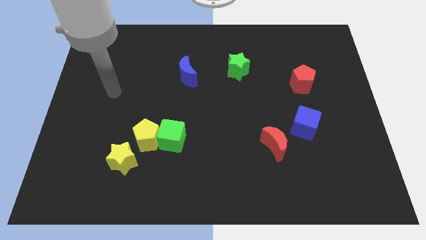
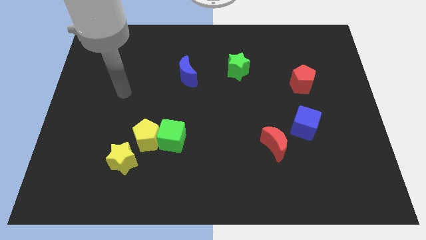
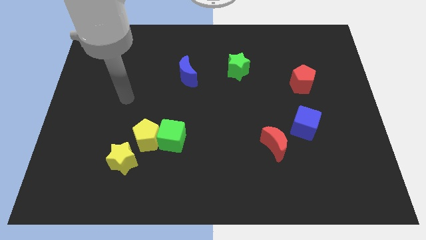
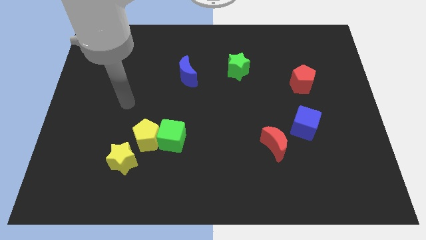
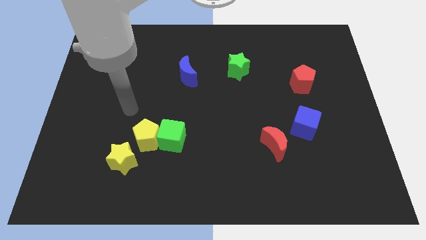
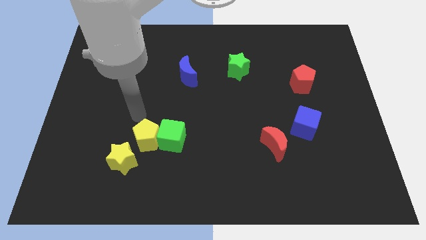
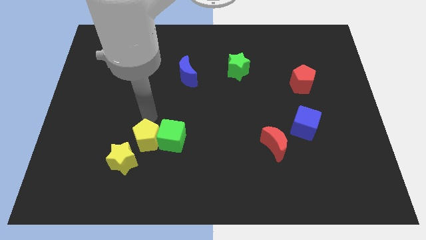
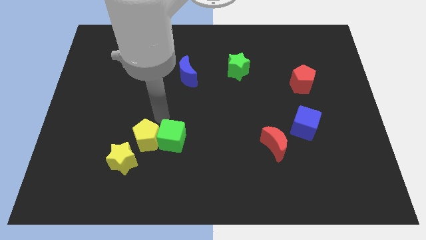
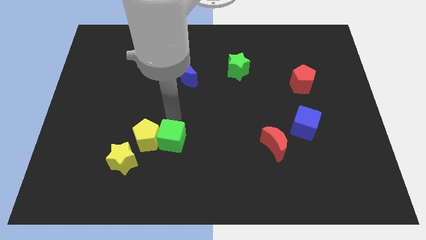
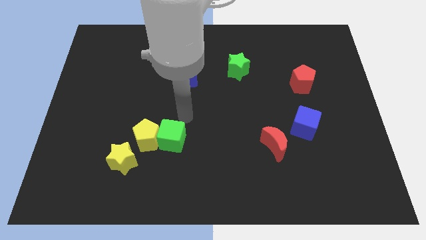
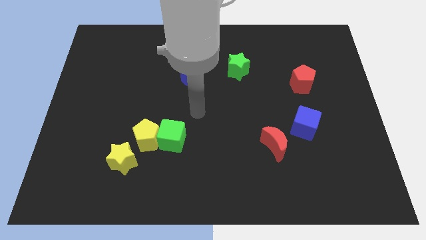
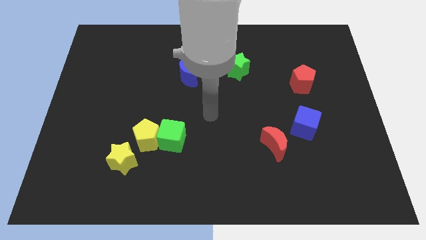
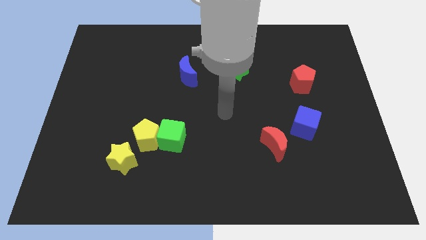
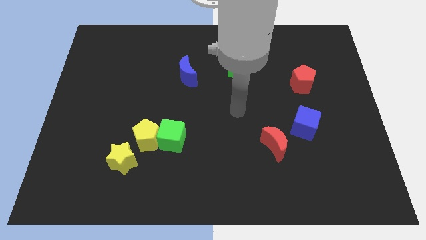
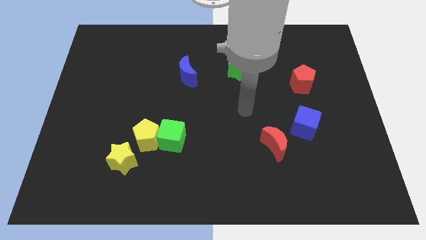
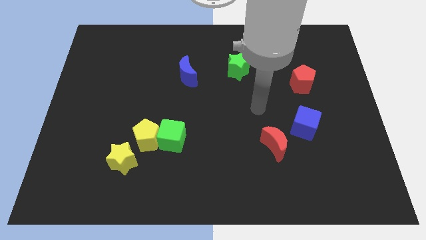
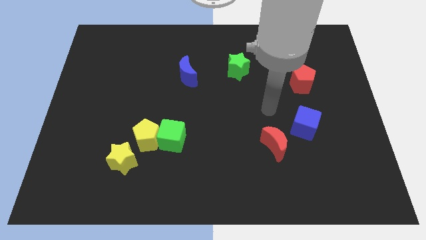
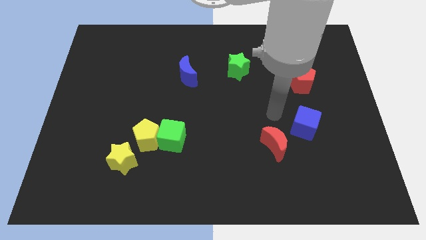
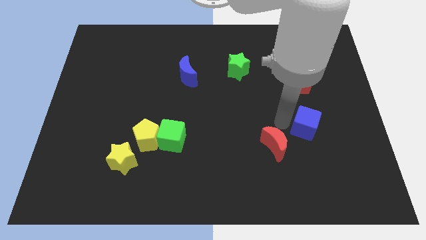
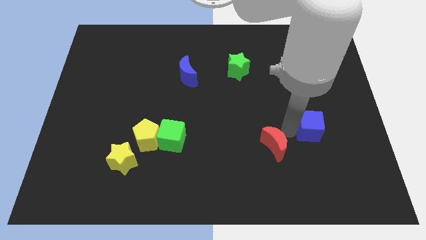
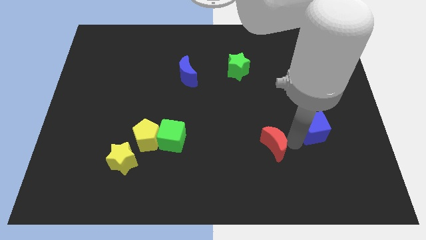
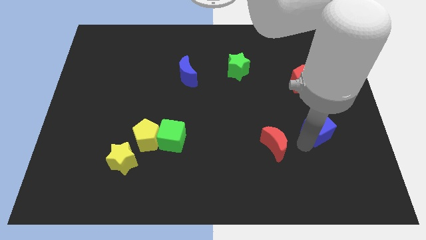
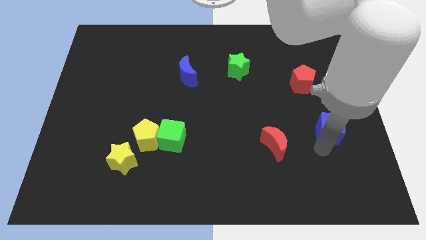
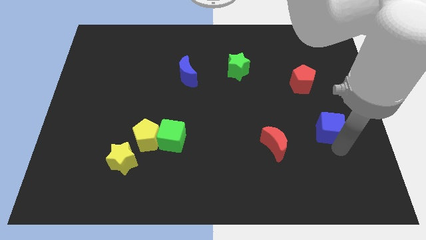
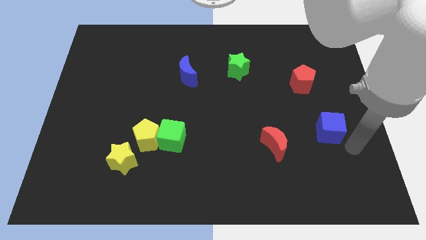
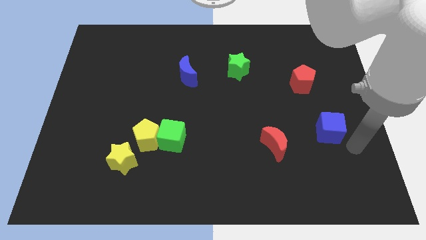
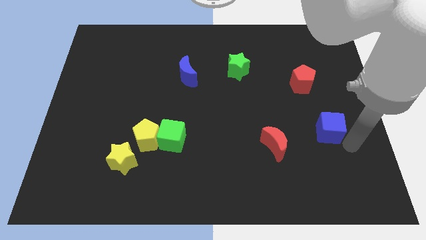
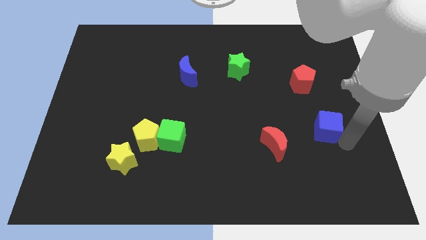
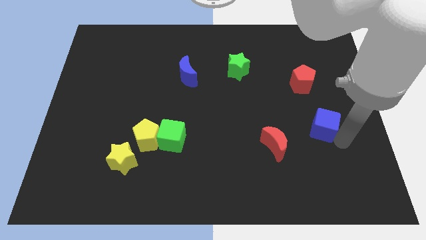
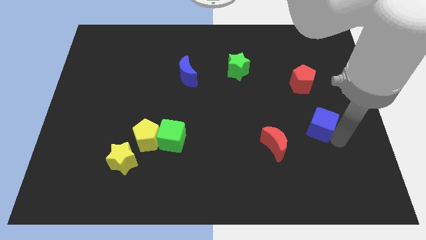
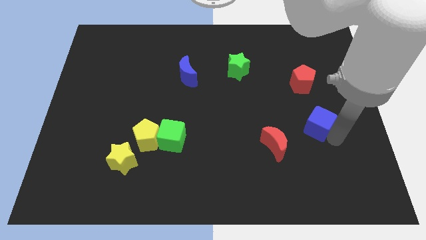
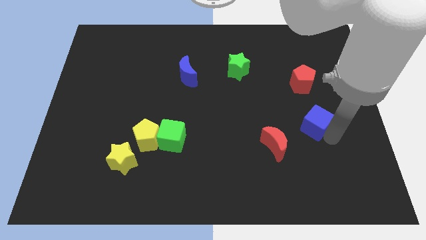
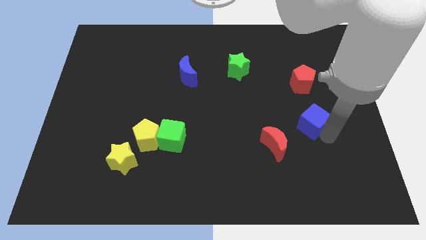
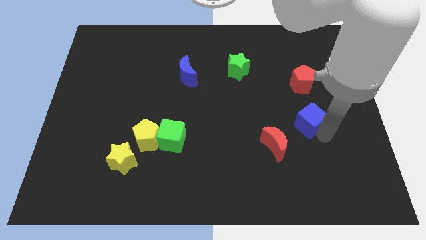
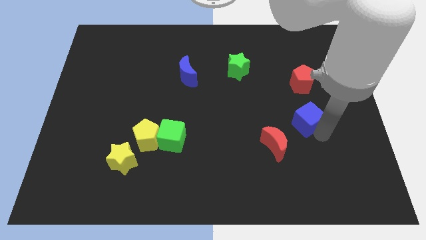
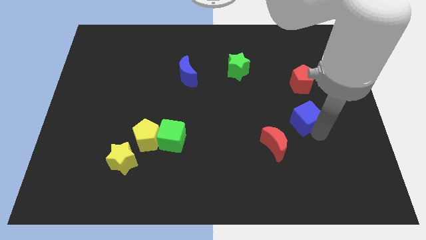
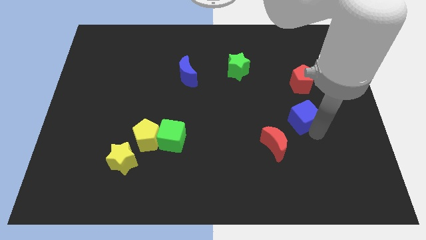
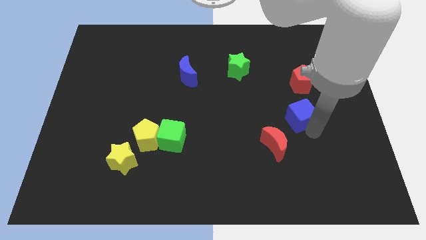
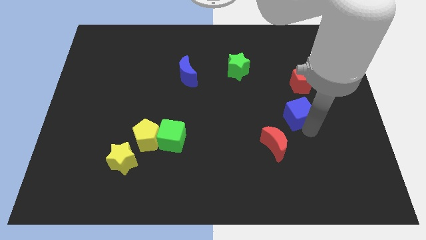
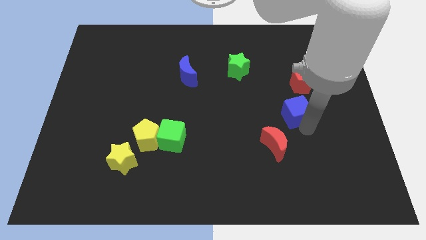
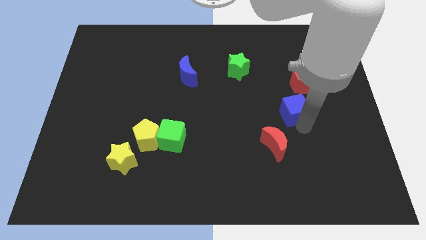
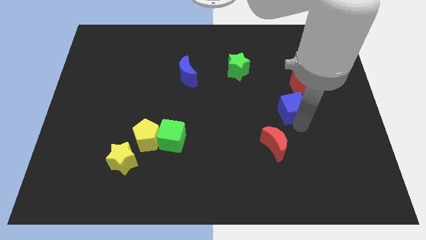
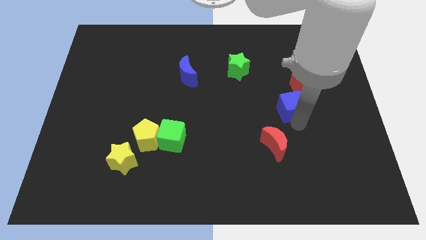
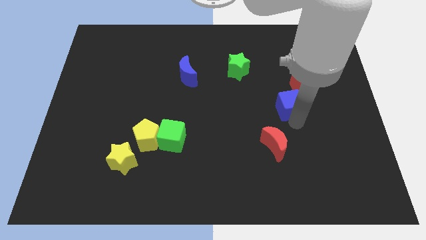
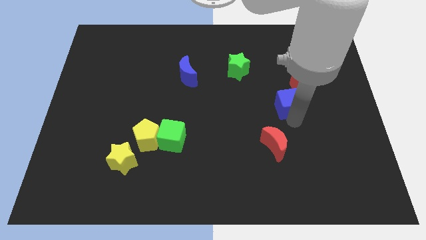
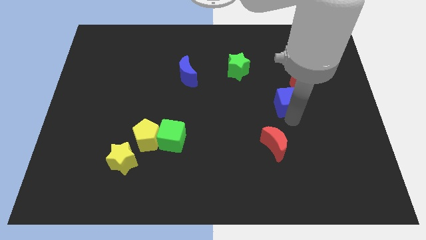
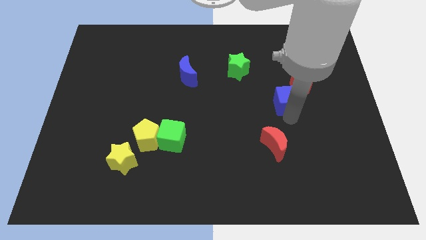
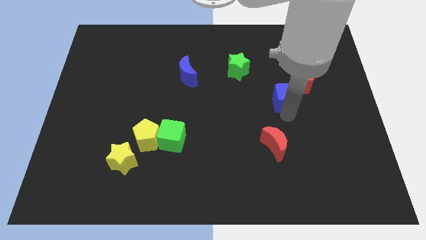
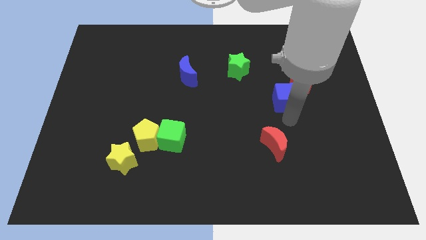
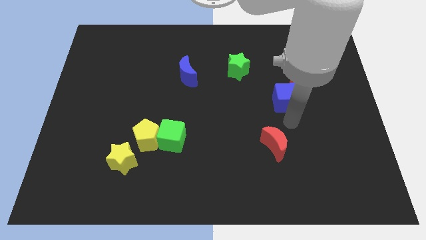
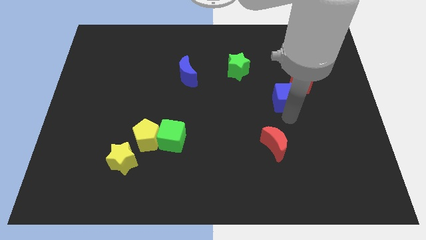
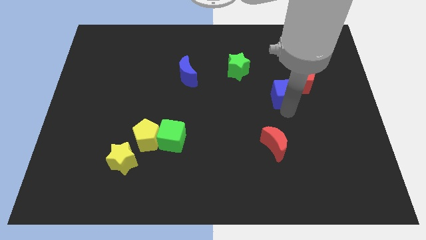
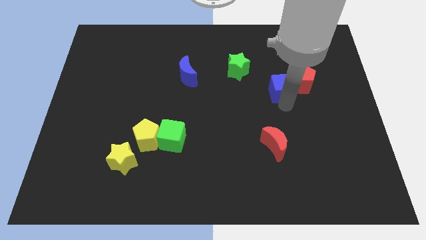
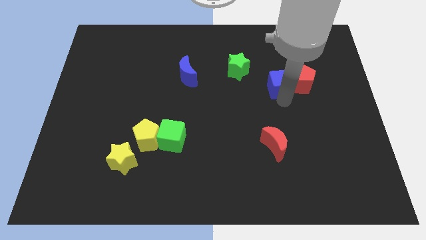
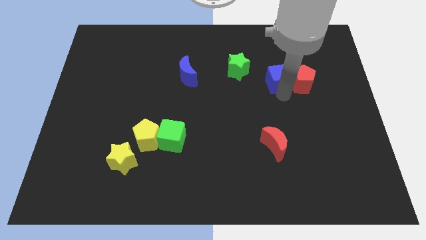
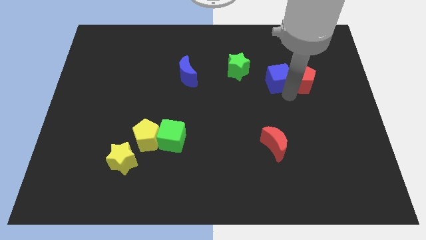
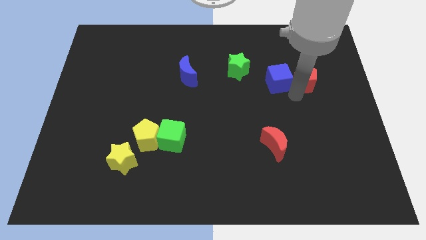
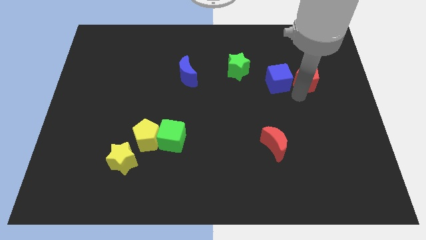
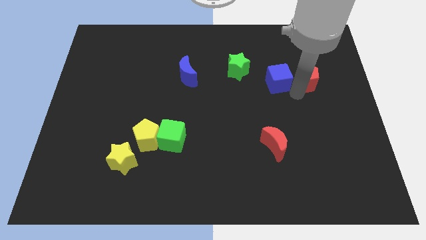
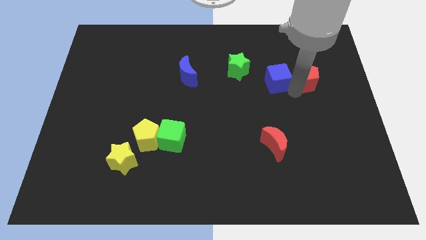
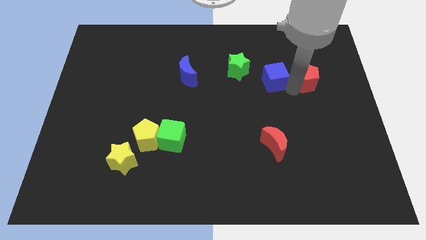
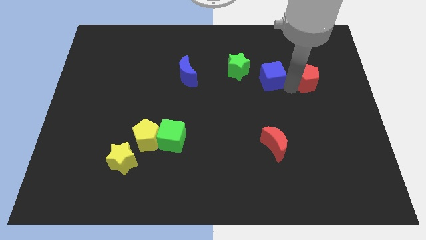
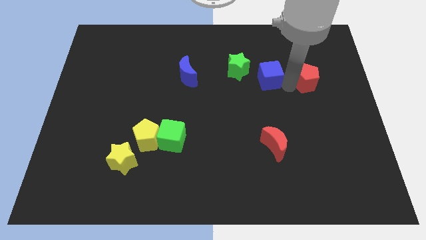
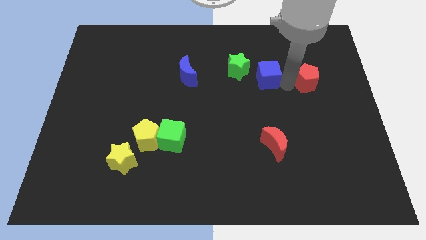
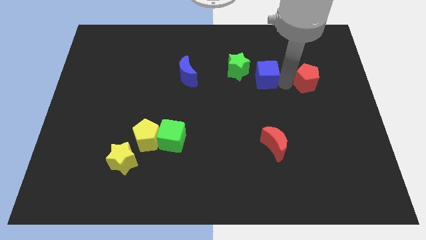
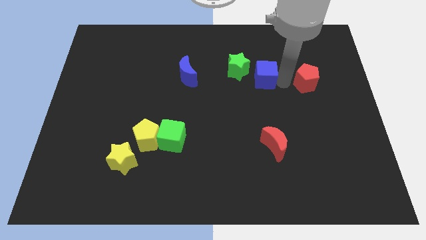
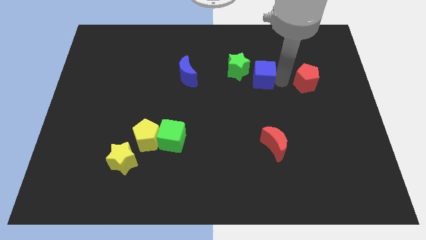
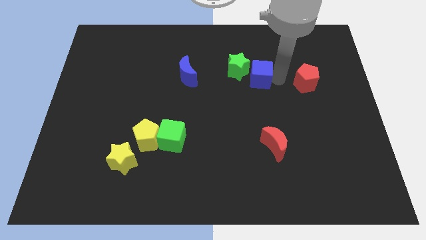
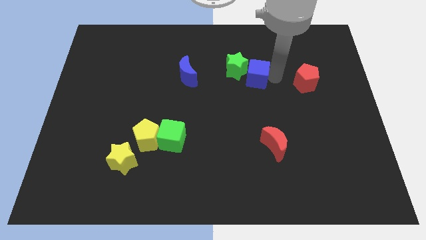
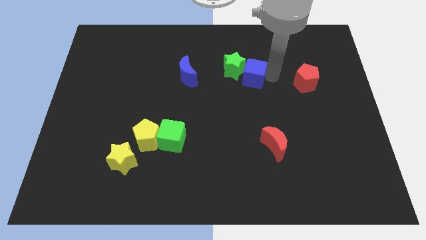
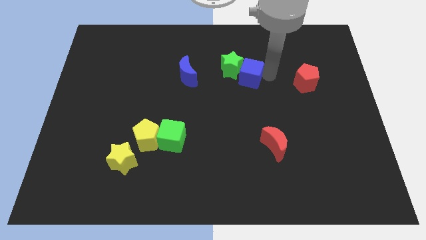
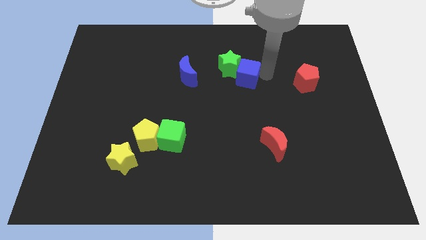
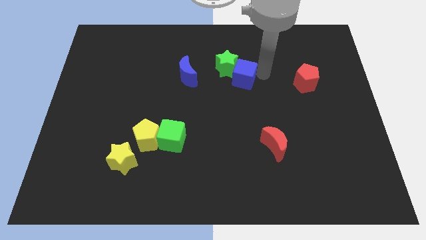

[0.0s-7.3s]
push the blue cube upwards and to the left

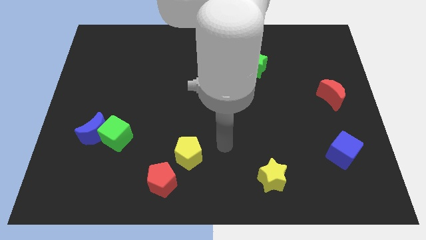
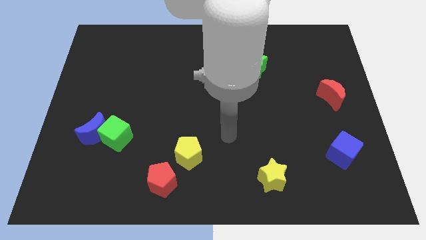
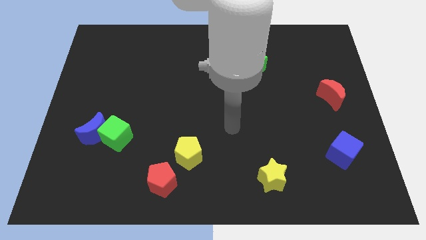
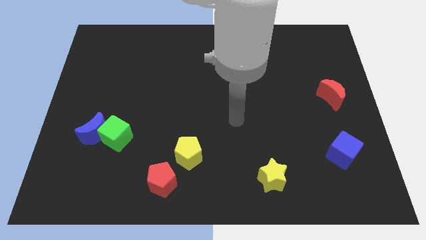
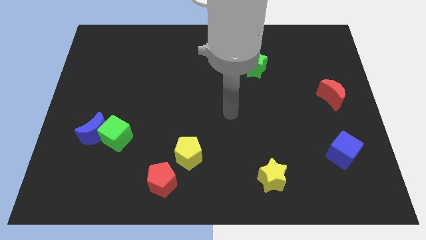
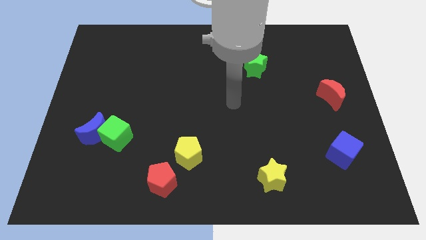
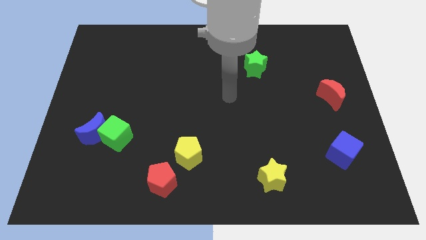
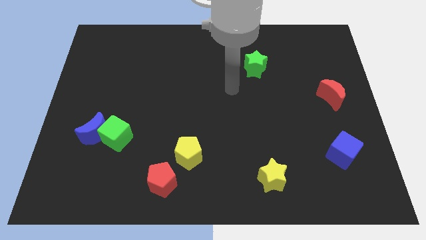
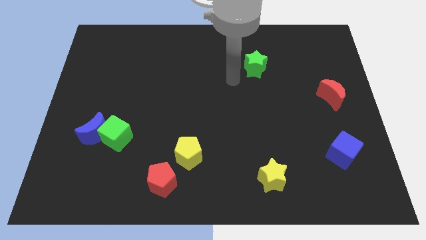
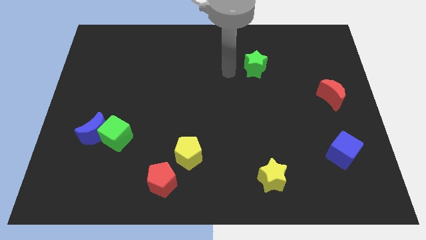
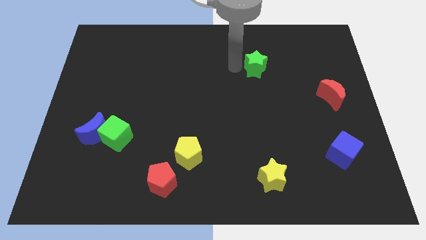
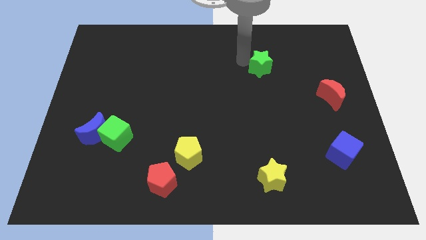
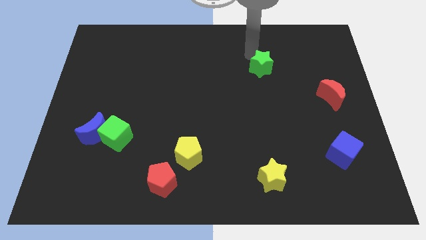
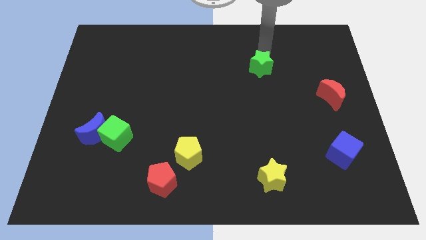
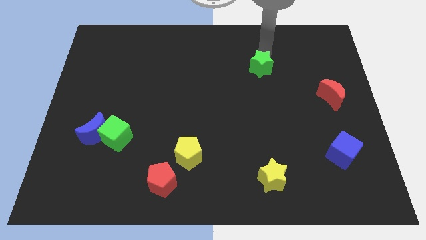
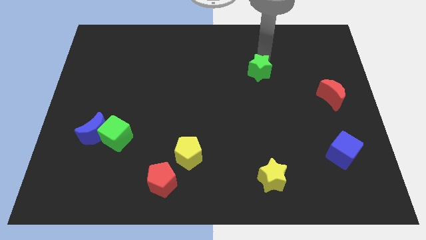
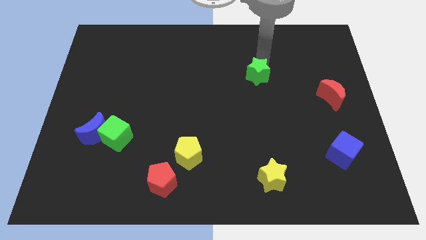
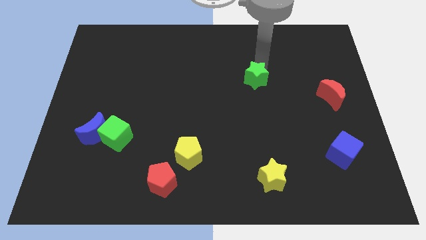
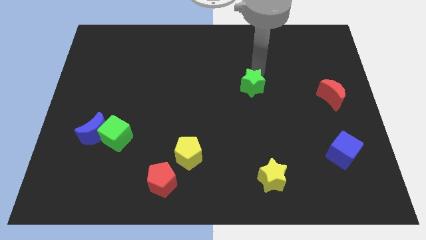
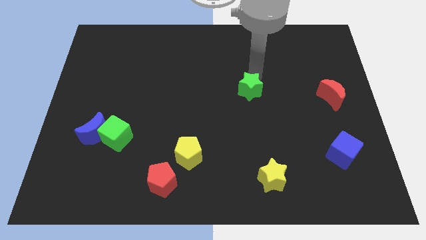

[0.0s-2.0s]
slightly slide the green star down
